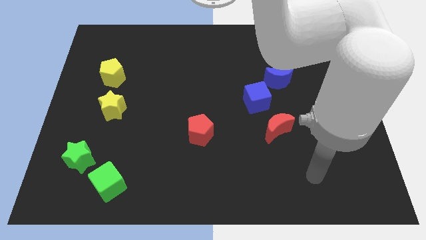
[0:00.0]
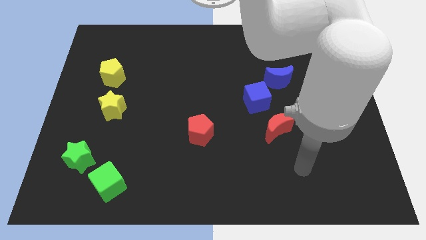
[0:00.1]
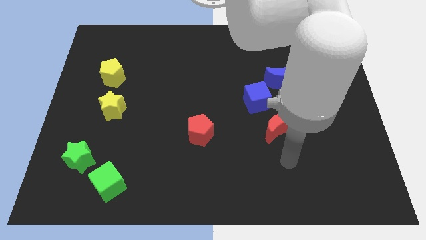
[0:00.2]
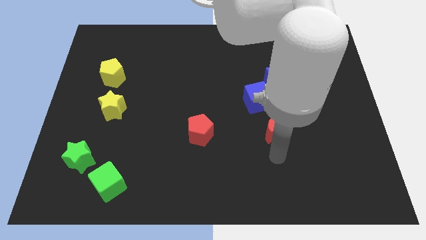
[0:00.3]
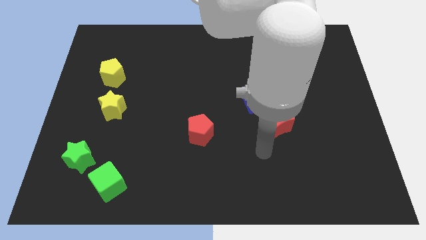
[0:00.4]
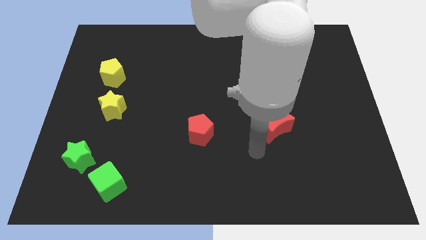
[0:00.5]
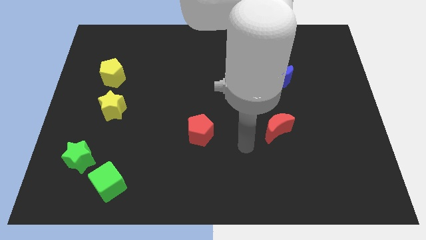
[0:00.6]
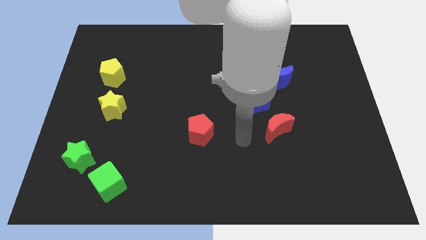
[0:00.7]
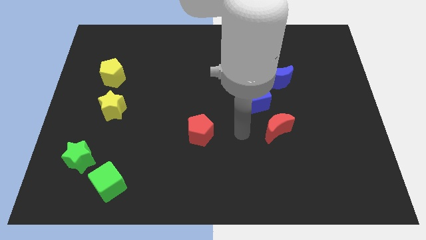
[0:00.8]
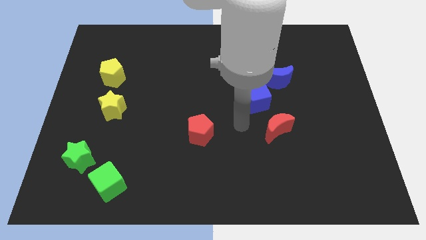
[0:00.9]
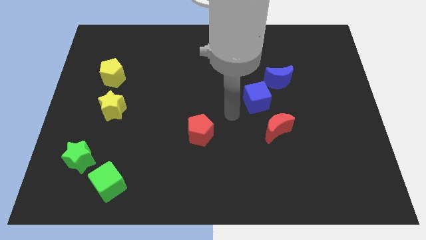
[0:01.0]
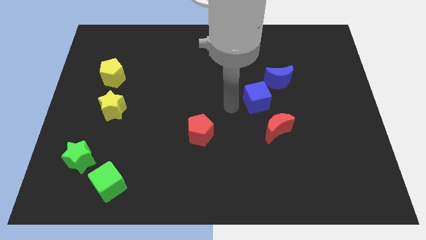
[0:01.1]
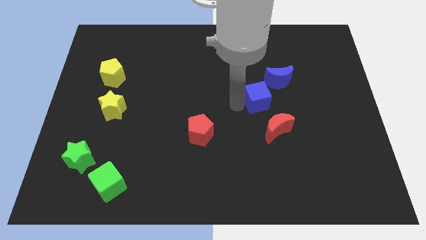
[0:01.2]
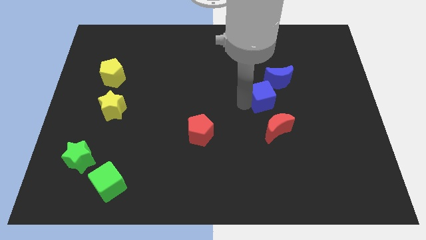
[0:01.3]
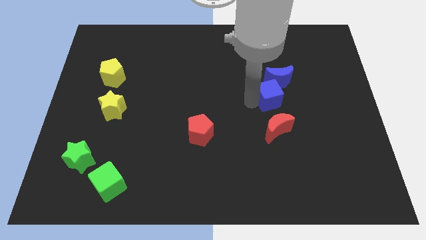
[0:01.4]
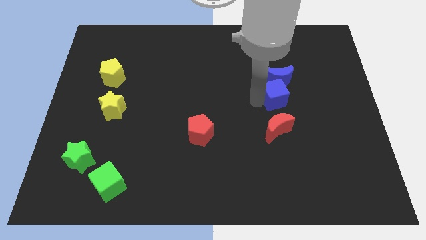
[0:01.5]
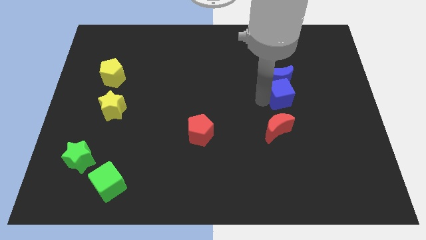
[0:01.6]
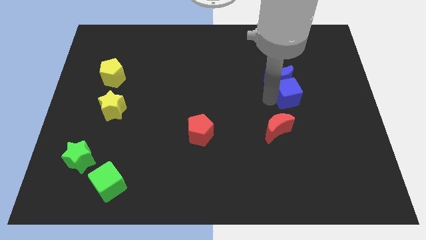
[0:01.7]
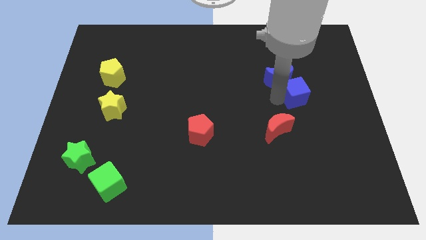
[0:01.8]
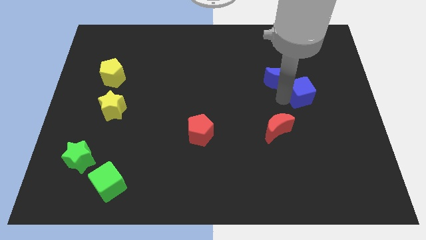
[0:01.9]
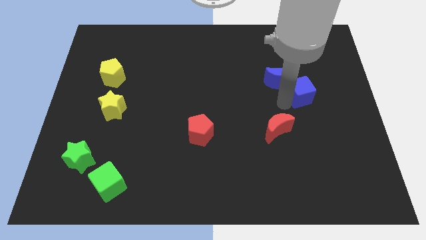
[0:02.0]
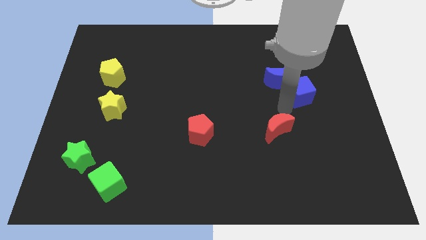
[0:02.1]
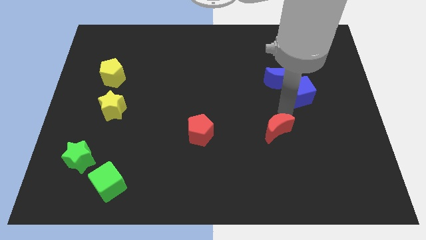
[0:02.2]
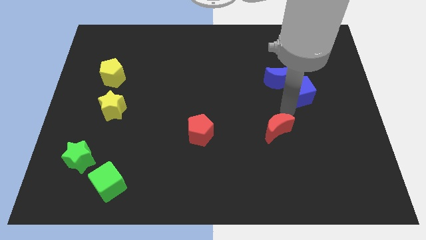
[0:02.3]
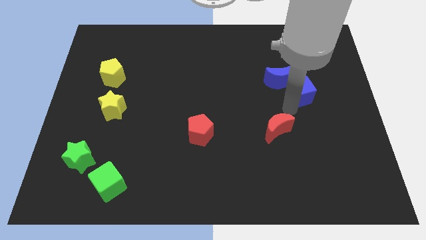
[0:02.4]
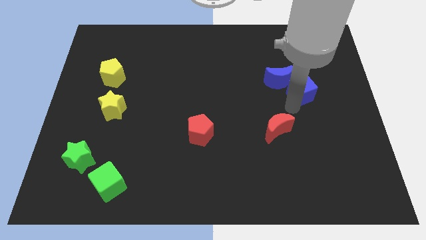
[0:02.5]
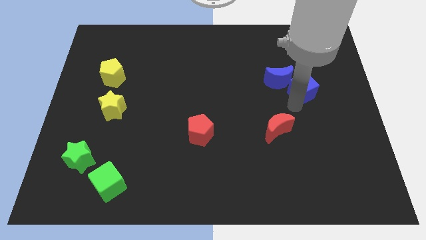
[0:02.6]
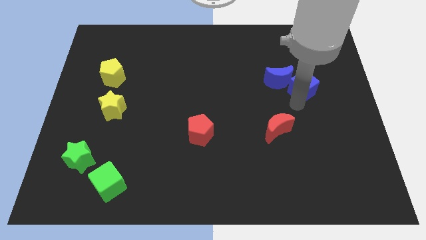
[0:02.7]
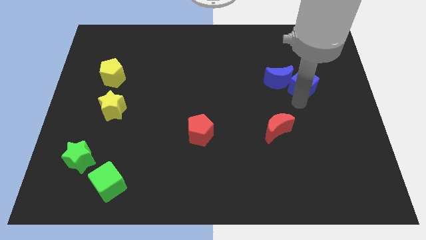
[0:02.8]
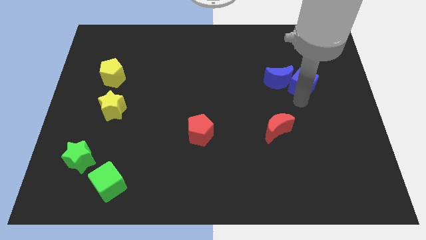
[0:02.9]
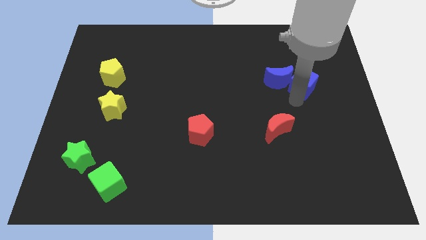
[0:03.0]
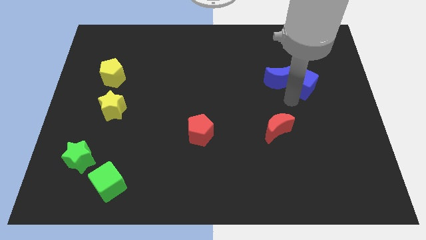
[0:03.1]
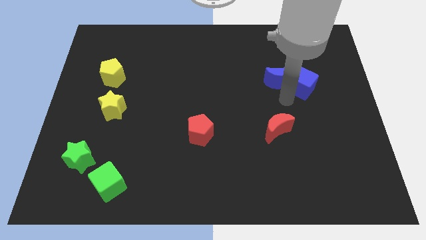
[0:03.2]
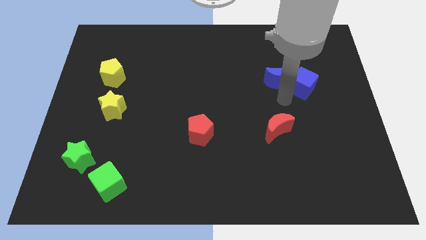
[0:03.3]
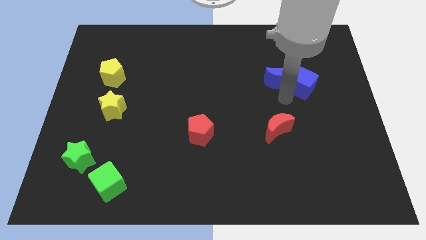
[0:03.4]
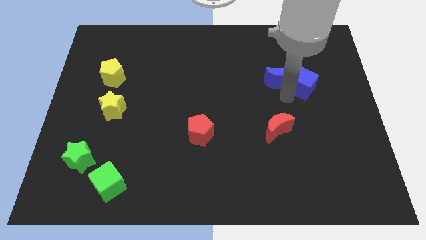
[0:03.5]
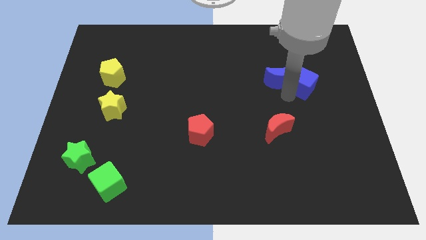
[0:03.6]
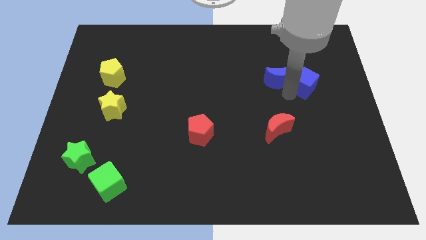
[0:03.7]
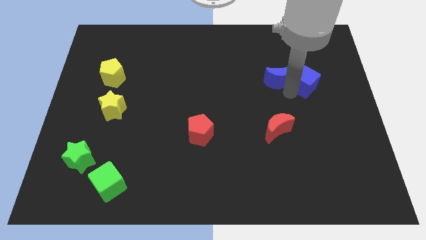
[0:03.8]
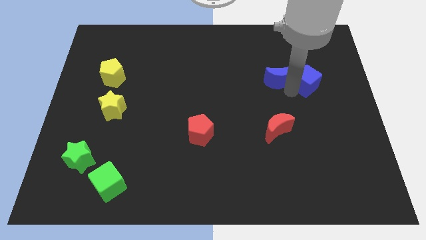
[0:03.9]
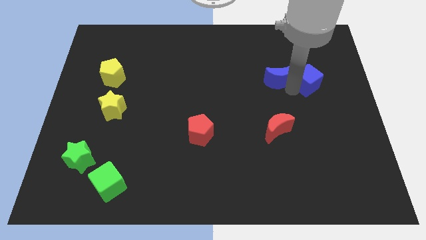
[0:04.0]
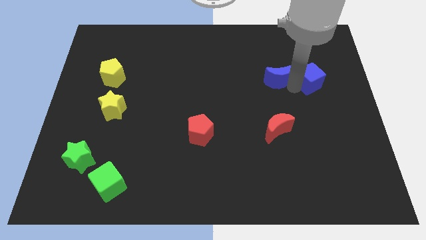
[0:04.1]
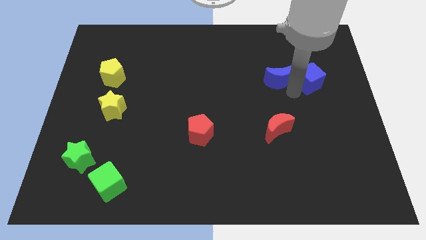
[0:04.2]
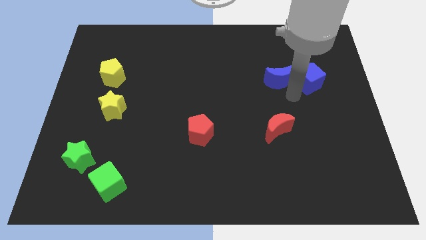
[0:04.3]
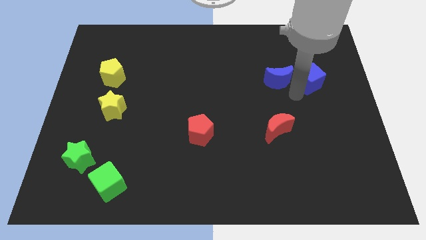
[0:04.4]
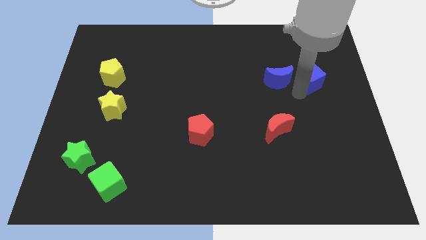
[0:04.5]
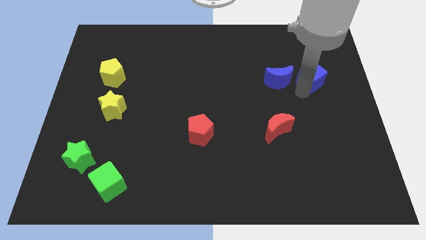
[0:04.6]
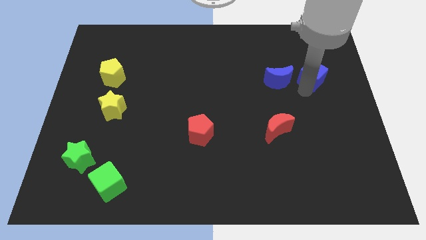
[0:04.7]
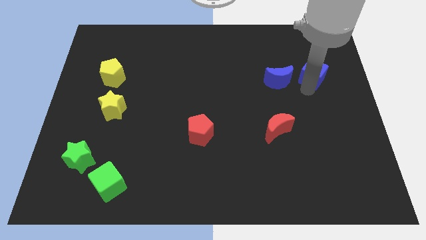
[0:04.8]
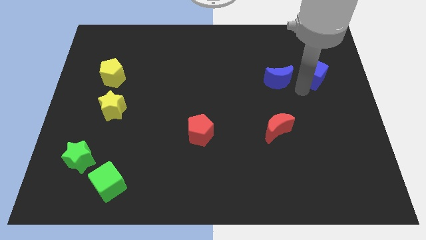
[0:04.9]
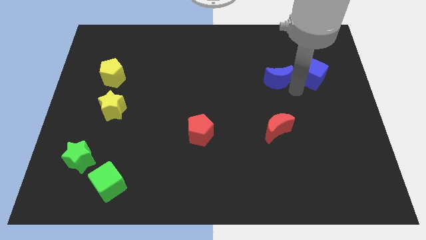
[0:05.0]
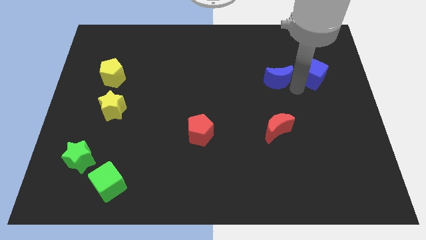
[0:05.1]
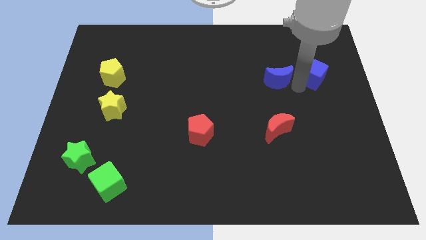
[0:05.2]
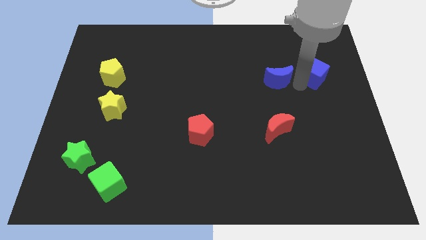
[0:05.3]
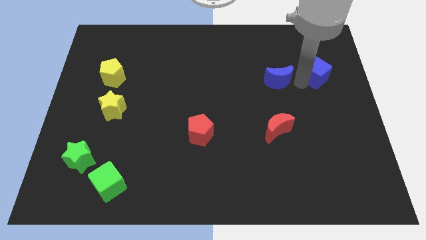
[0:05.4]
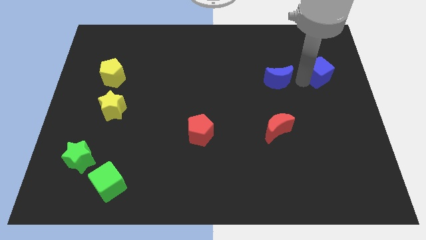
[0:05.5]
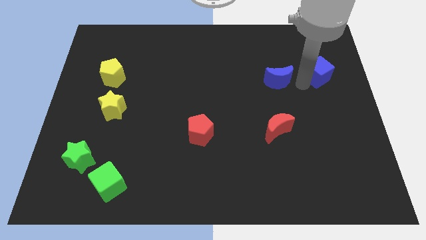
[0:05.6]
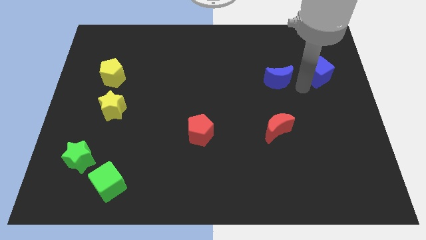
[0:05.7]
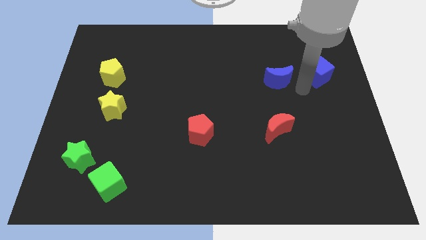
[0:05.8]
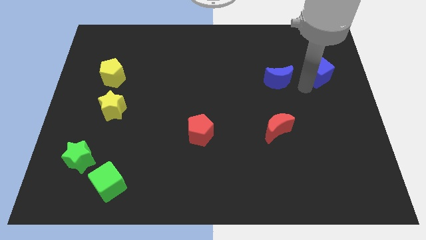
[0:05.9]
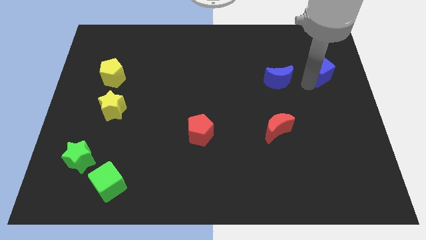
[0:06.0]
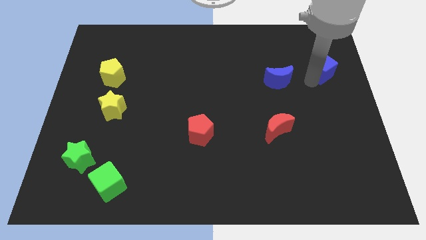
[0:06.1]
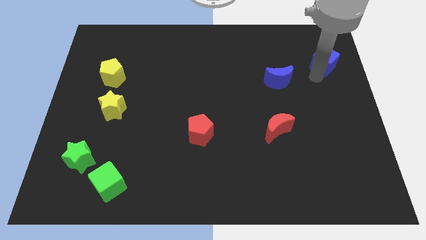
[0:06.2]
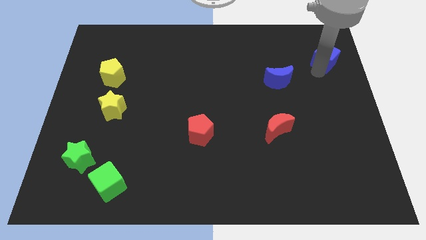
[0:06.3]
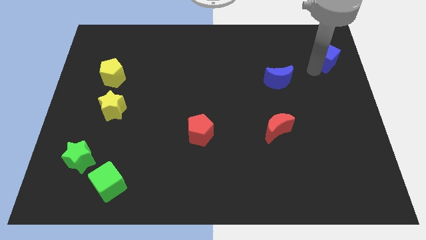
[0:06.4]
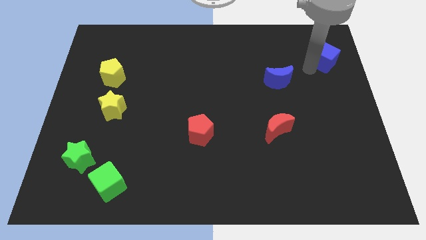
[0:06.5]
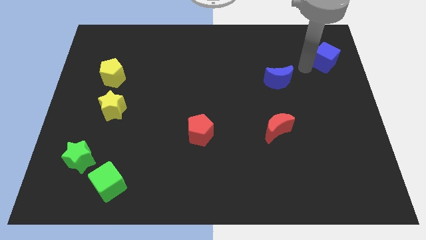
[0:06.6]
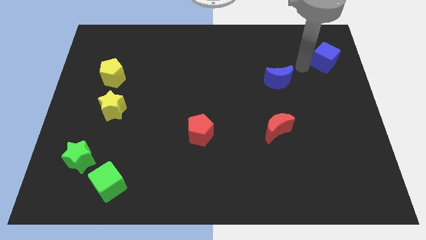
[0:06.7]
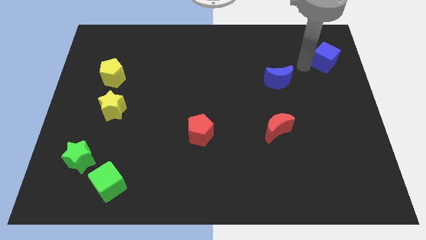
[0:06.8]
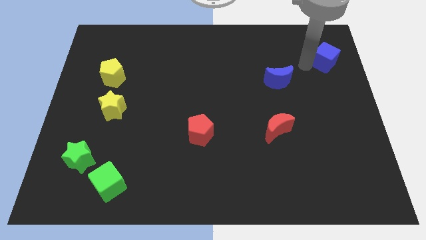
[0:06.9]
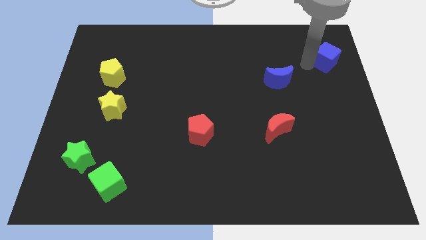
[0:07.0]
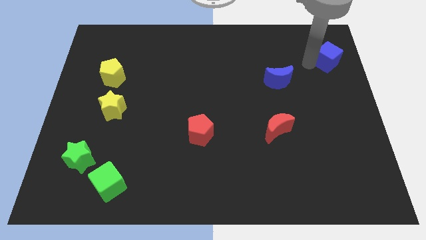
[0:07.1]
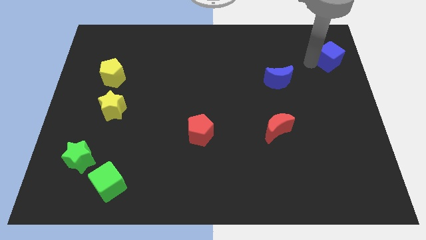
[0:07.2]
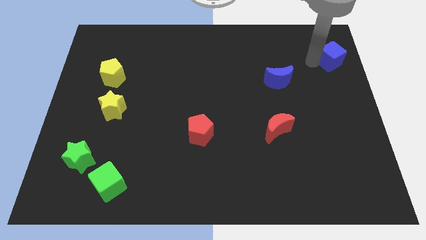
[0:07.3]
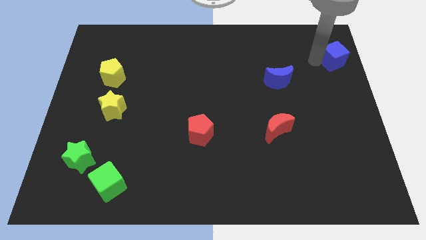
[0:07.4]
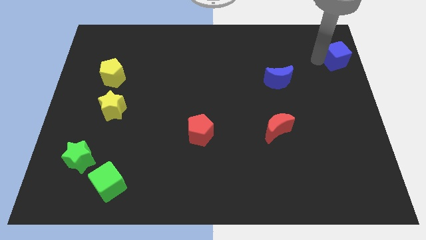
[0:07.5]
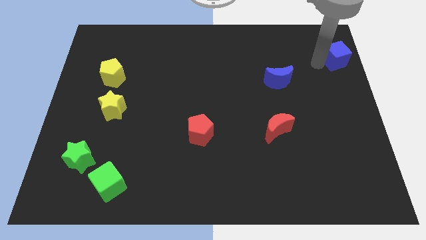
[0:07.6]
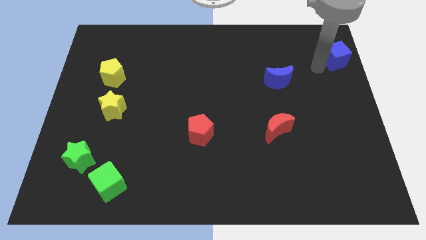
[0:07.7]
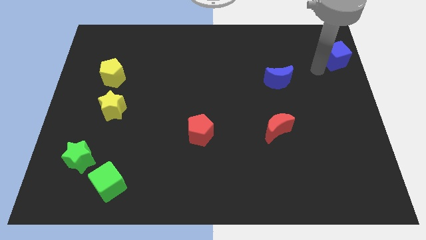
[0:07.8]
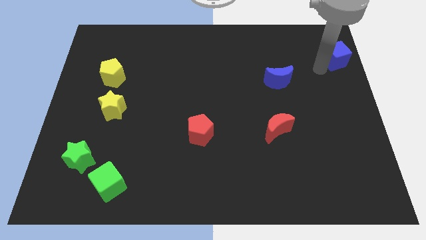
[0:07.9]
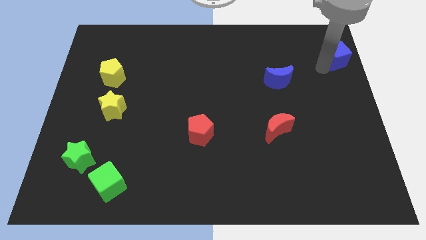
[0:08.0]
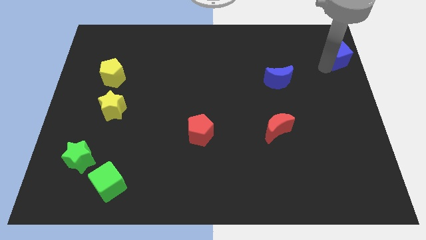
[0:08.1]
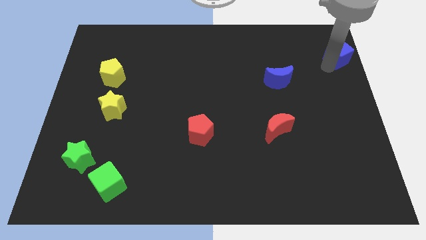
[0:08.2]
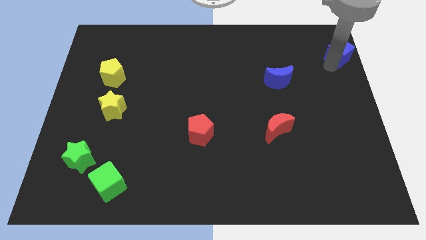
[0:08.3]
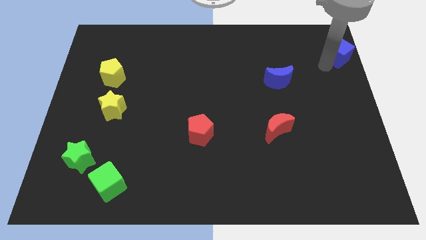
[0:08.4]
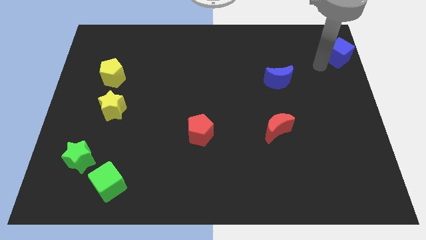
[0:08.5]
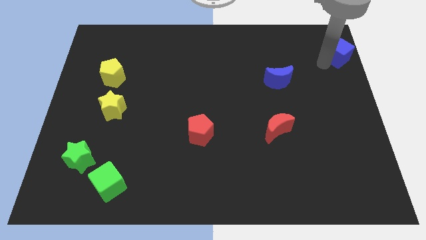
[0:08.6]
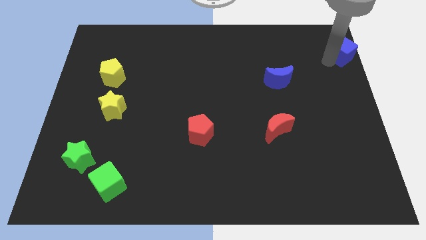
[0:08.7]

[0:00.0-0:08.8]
move the blue cube to the top right
